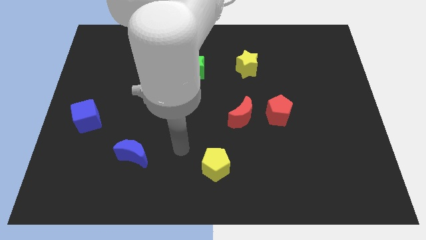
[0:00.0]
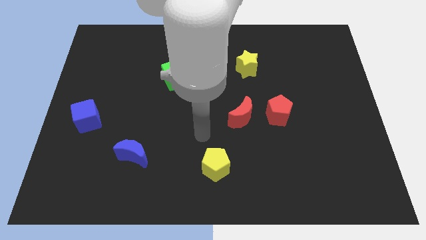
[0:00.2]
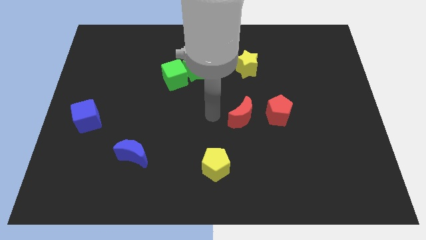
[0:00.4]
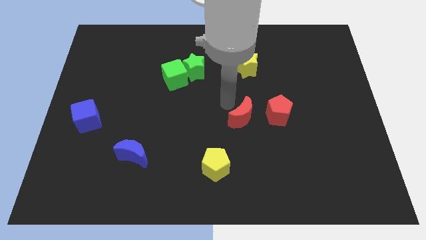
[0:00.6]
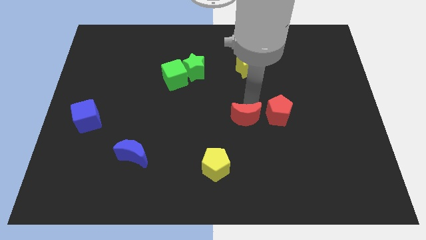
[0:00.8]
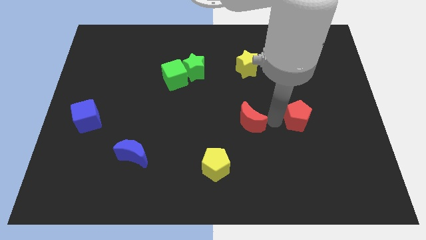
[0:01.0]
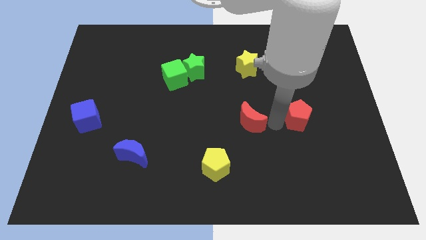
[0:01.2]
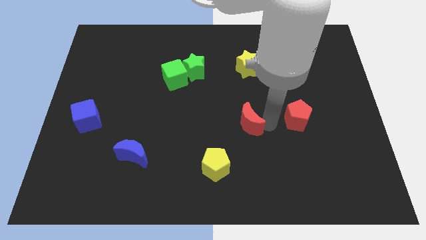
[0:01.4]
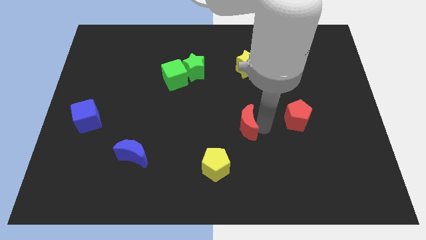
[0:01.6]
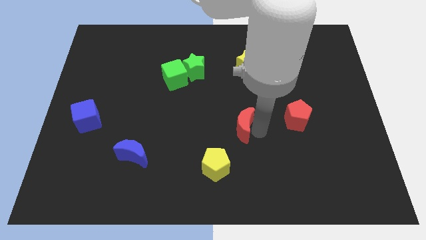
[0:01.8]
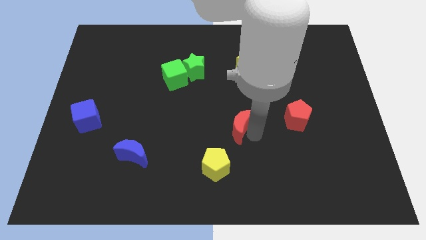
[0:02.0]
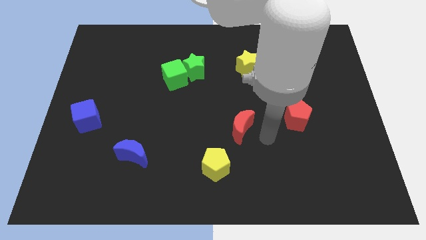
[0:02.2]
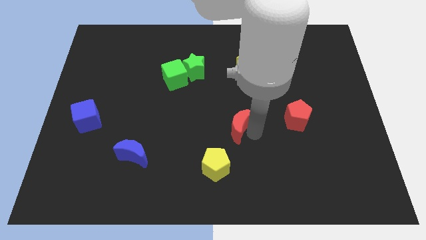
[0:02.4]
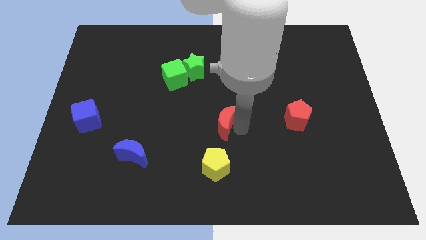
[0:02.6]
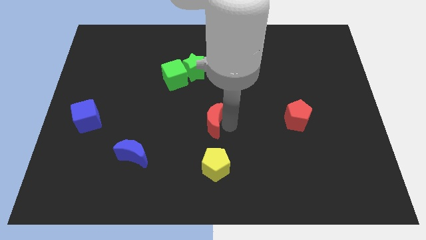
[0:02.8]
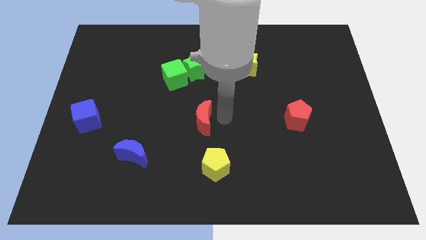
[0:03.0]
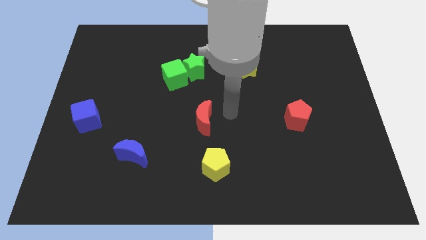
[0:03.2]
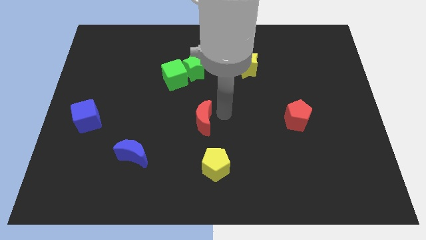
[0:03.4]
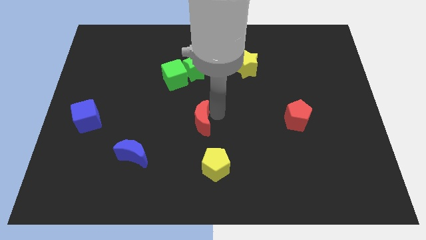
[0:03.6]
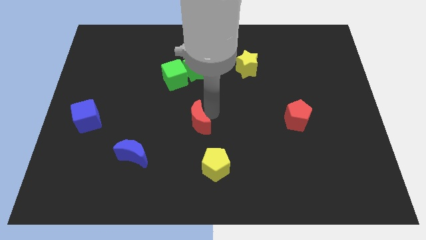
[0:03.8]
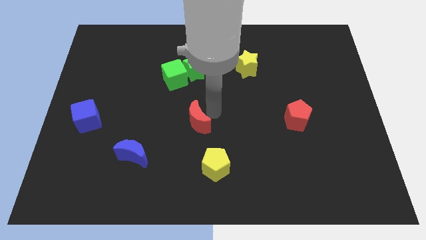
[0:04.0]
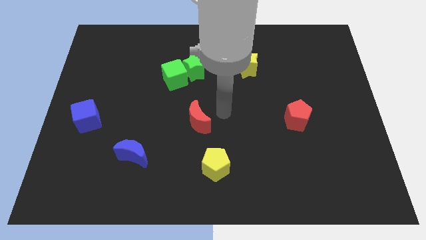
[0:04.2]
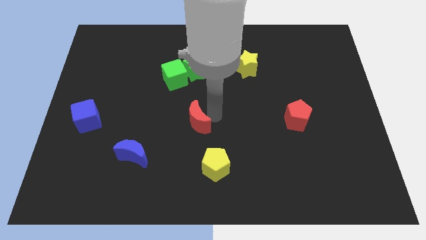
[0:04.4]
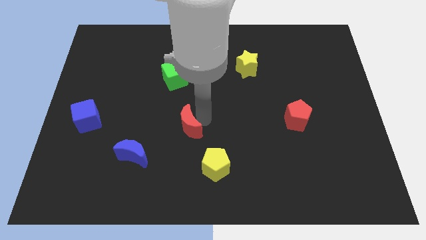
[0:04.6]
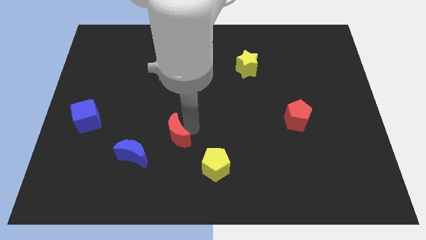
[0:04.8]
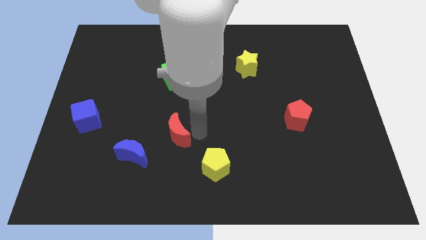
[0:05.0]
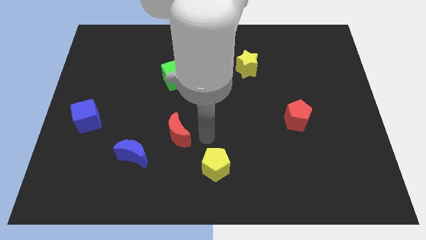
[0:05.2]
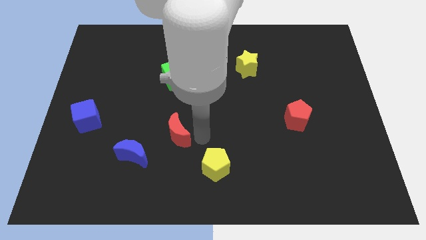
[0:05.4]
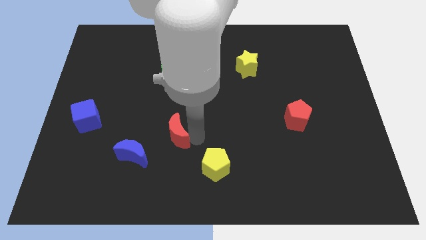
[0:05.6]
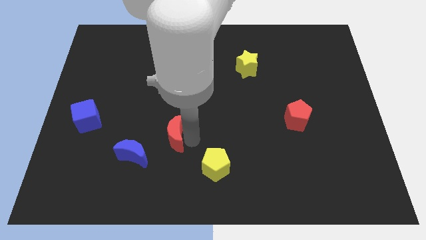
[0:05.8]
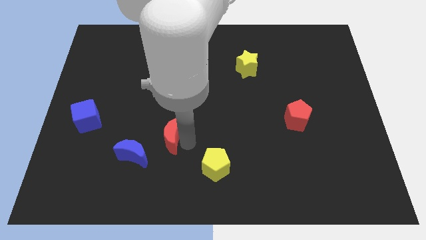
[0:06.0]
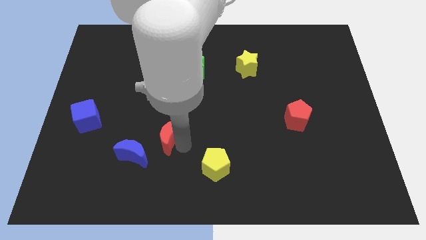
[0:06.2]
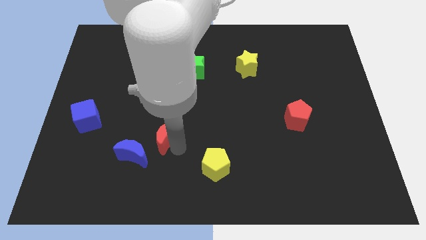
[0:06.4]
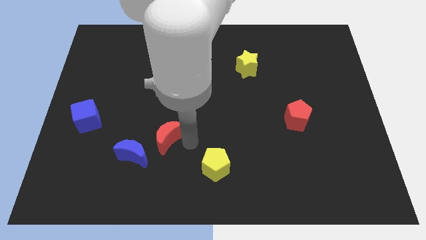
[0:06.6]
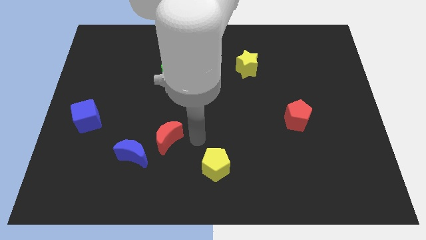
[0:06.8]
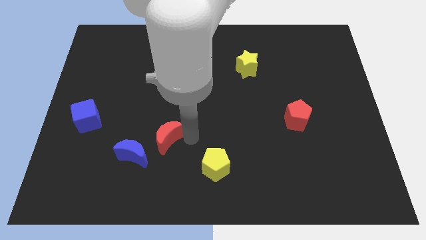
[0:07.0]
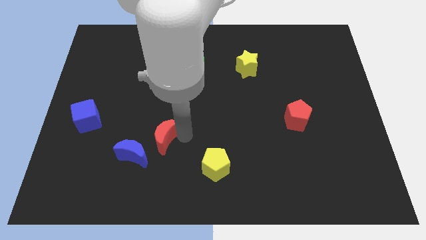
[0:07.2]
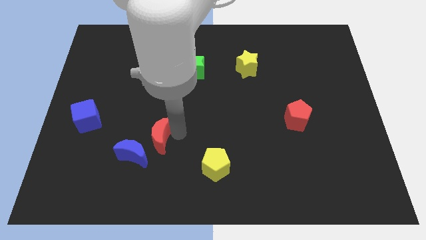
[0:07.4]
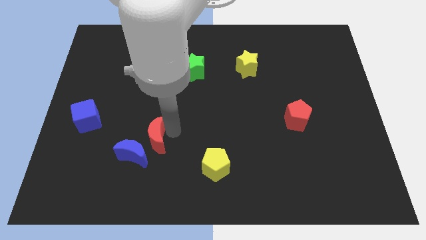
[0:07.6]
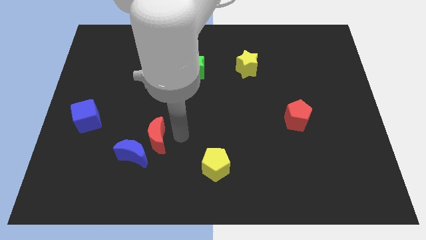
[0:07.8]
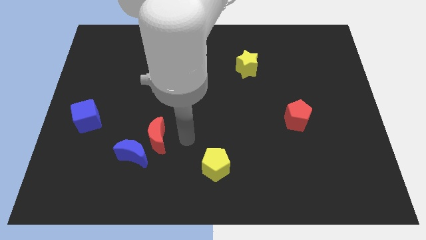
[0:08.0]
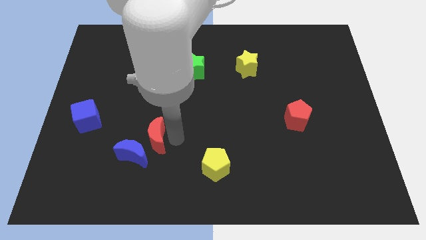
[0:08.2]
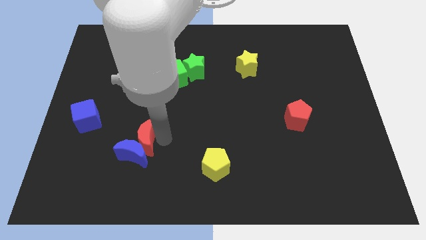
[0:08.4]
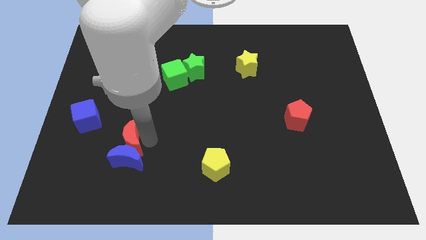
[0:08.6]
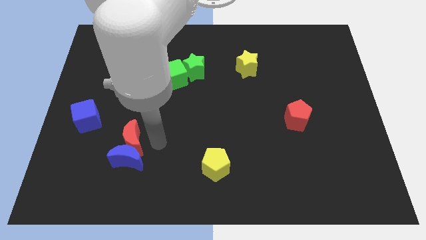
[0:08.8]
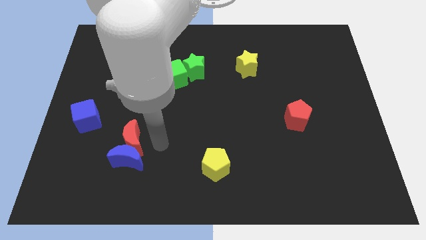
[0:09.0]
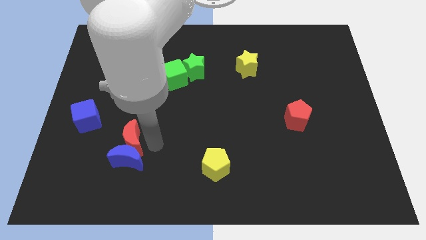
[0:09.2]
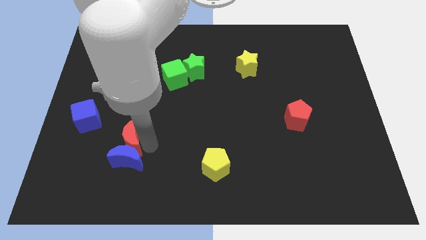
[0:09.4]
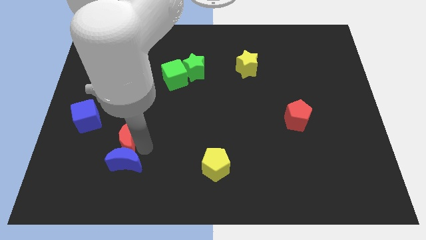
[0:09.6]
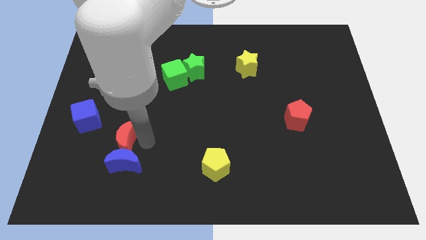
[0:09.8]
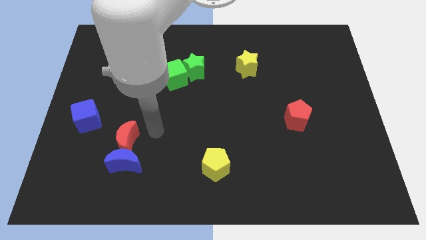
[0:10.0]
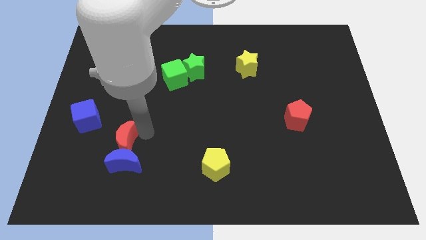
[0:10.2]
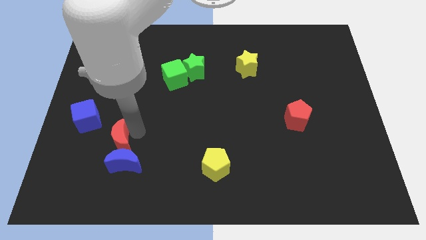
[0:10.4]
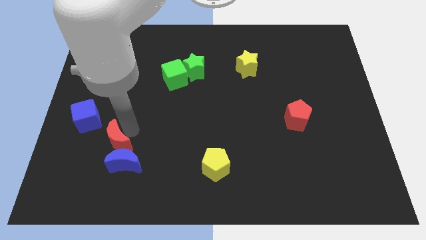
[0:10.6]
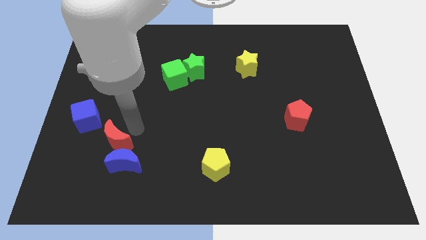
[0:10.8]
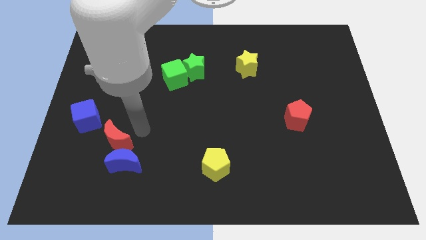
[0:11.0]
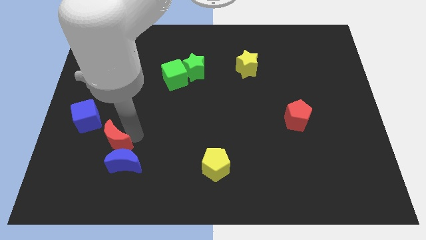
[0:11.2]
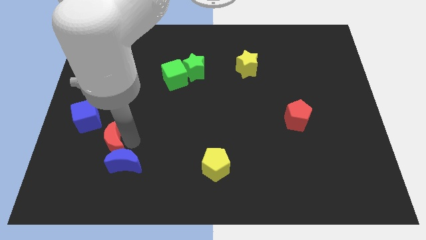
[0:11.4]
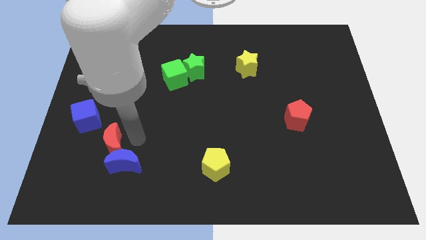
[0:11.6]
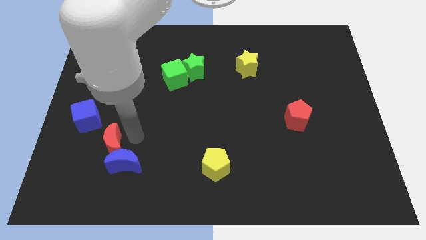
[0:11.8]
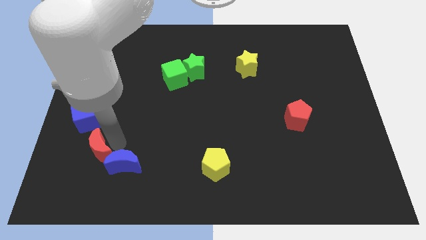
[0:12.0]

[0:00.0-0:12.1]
put the red moon below the blue cube
